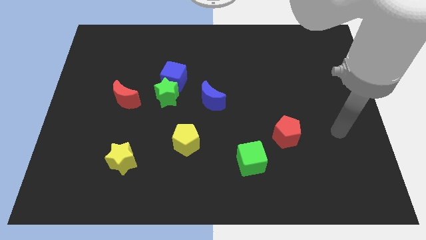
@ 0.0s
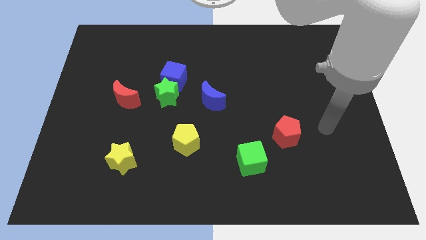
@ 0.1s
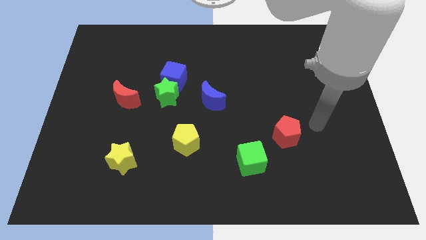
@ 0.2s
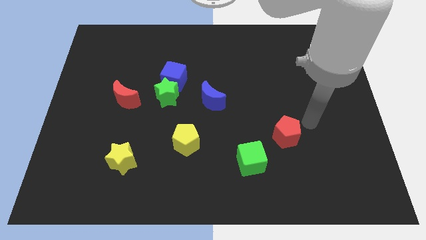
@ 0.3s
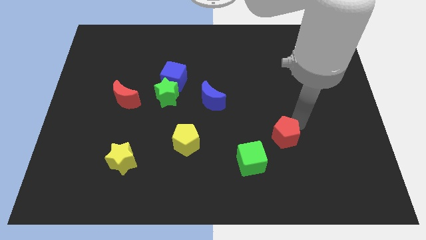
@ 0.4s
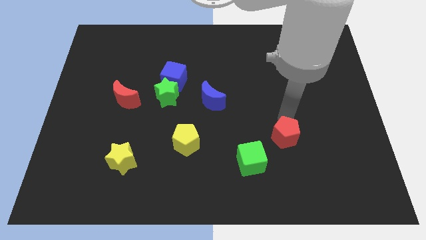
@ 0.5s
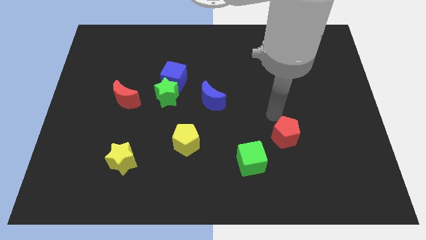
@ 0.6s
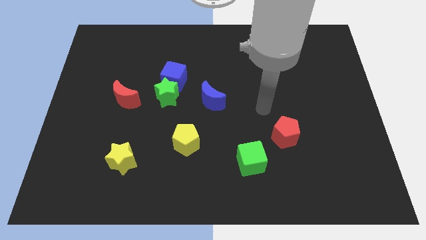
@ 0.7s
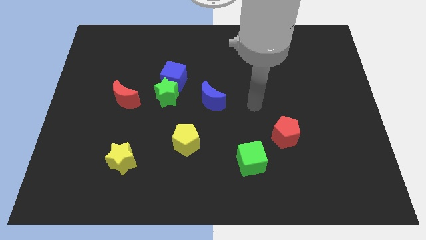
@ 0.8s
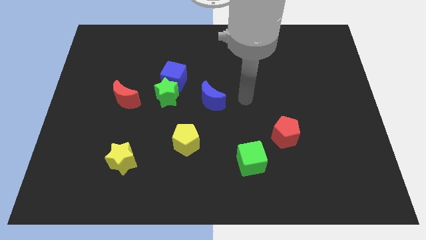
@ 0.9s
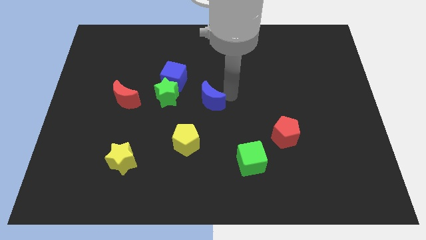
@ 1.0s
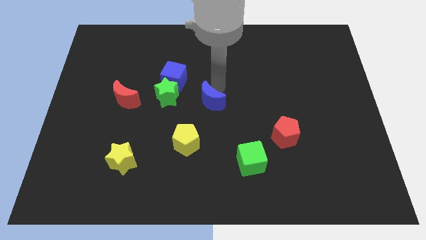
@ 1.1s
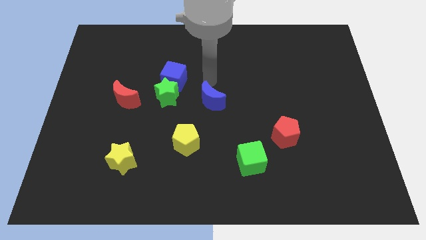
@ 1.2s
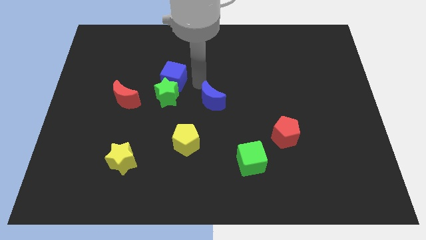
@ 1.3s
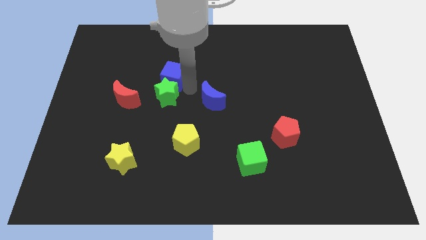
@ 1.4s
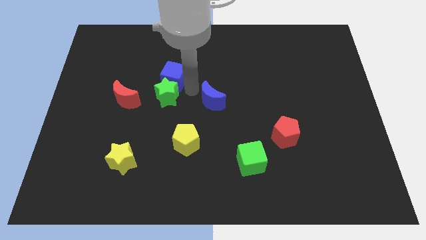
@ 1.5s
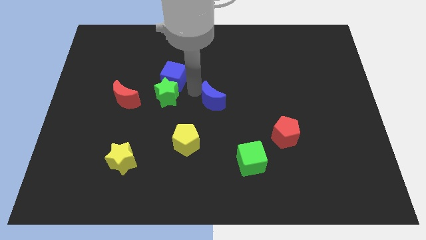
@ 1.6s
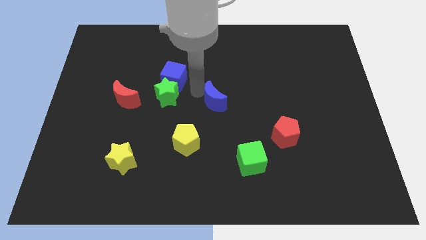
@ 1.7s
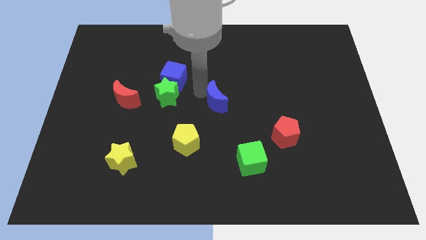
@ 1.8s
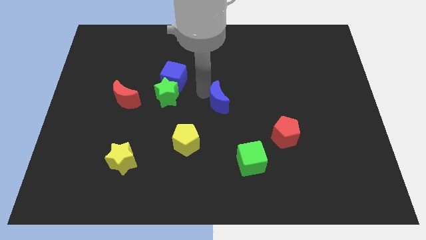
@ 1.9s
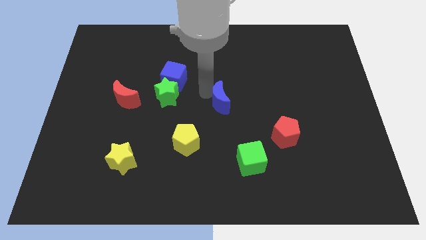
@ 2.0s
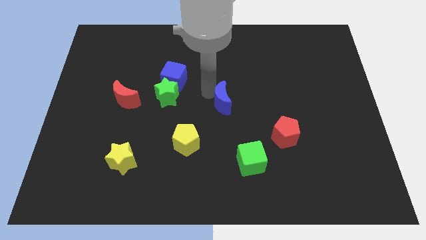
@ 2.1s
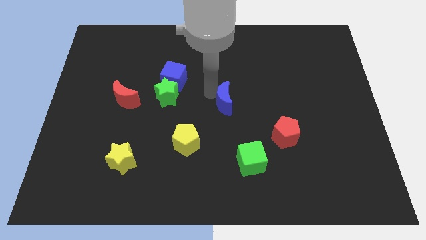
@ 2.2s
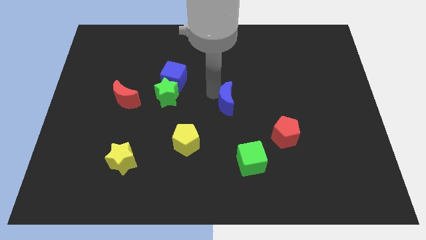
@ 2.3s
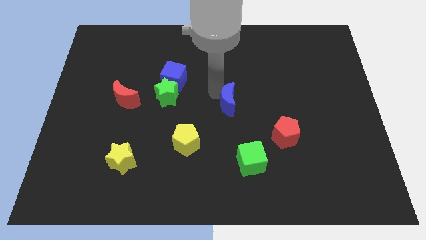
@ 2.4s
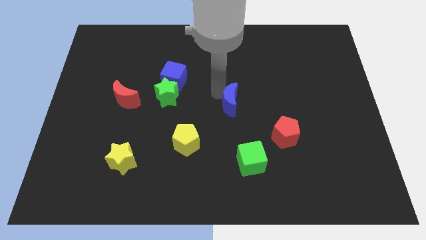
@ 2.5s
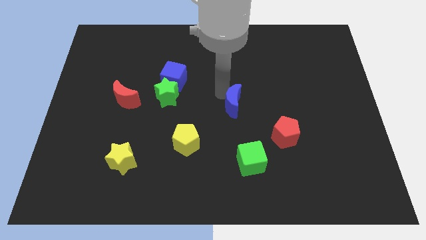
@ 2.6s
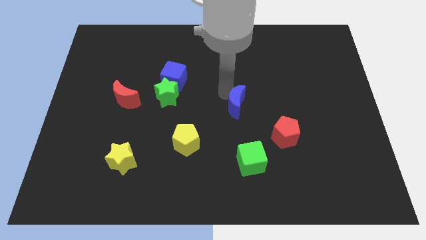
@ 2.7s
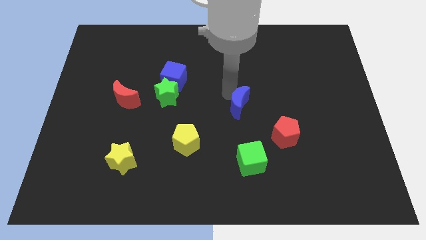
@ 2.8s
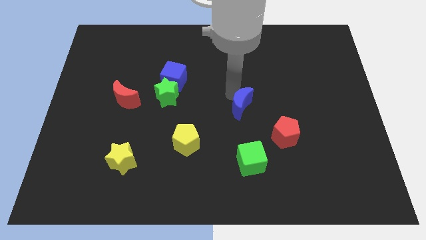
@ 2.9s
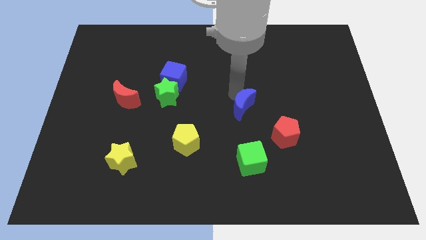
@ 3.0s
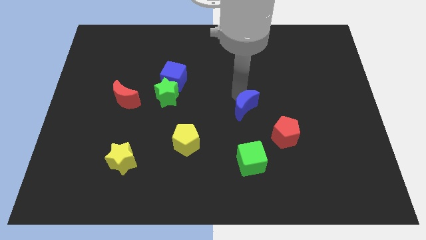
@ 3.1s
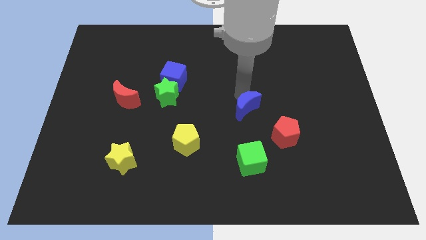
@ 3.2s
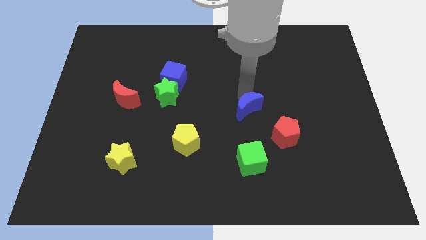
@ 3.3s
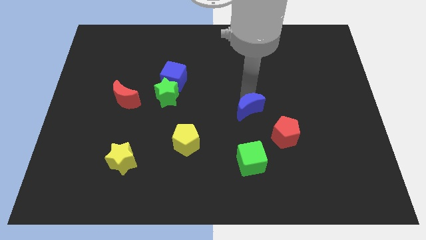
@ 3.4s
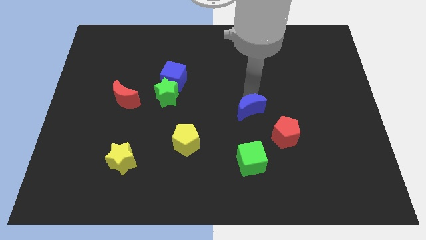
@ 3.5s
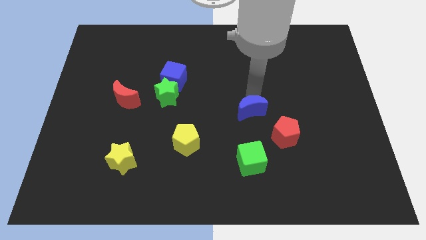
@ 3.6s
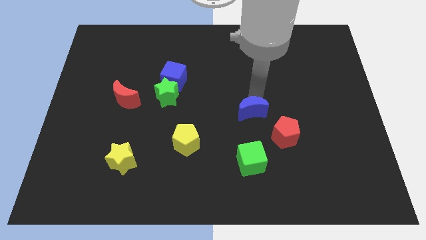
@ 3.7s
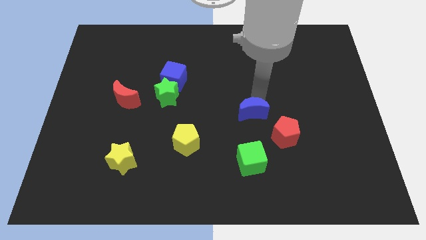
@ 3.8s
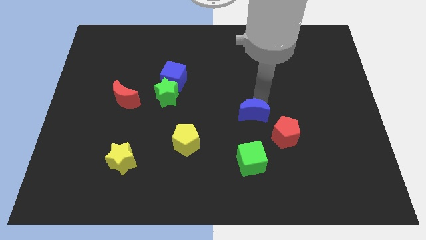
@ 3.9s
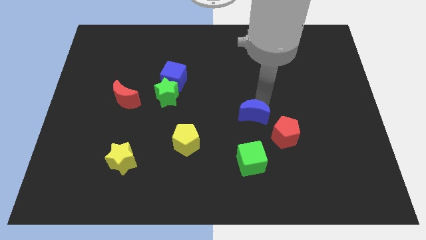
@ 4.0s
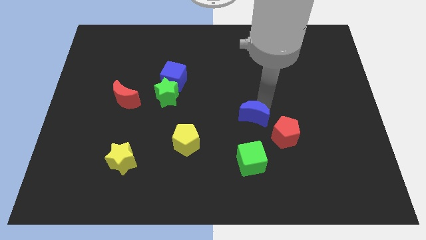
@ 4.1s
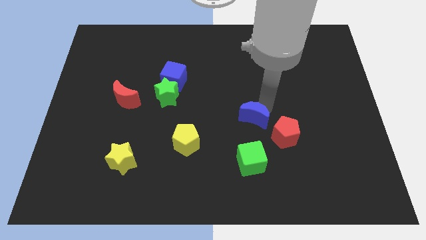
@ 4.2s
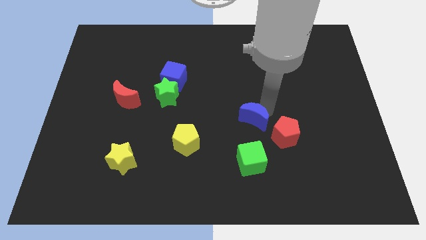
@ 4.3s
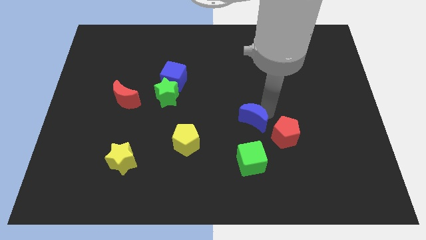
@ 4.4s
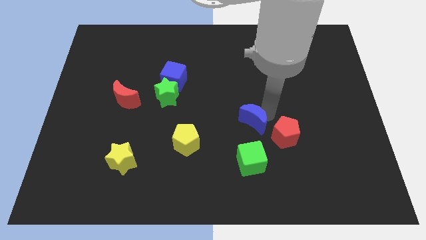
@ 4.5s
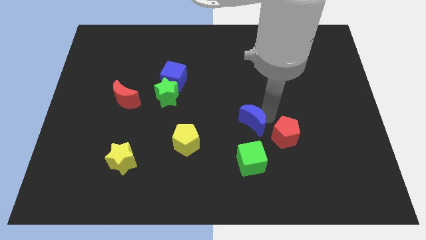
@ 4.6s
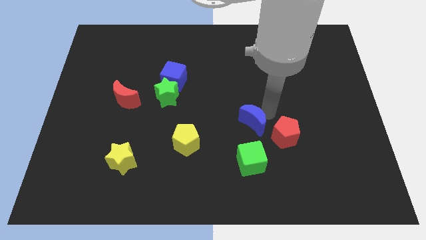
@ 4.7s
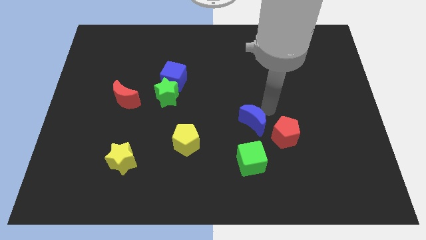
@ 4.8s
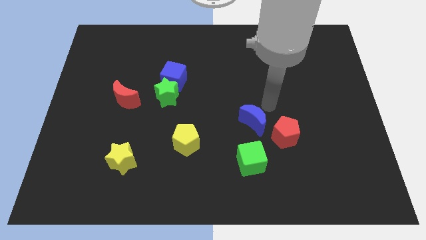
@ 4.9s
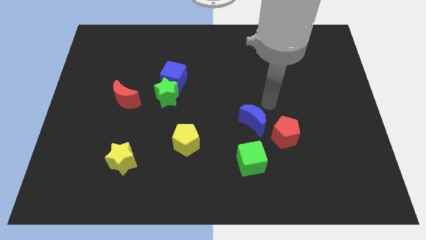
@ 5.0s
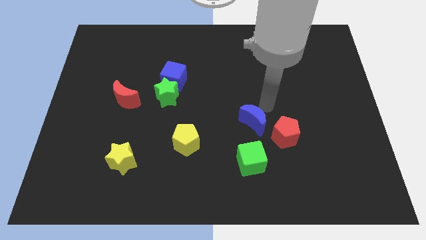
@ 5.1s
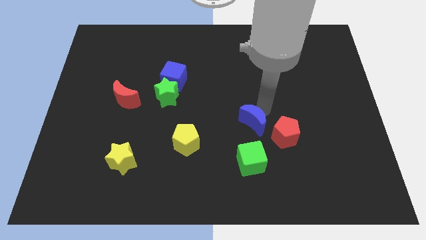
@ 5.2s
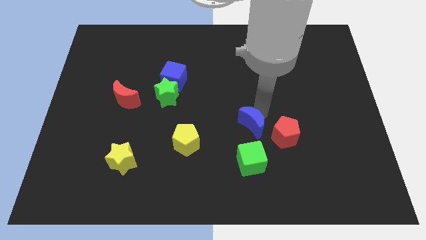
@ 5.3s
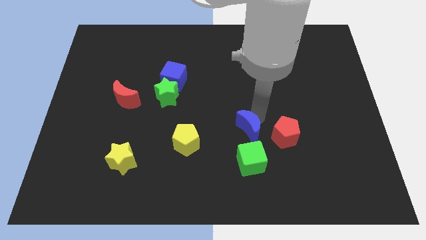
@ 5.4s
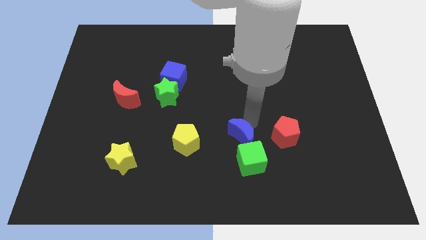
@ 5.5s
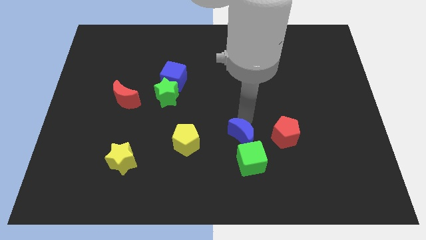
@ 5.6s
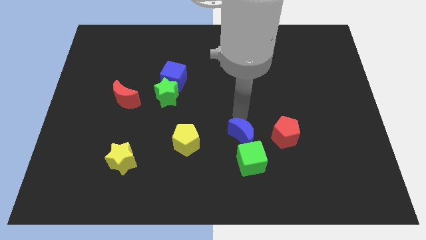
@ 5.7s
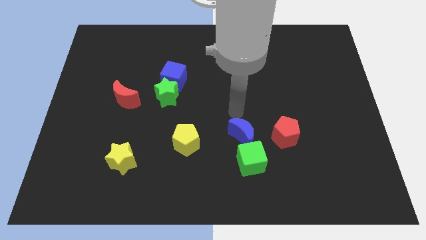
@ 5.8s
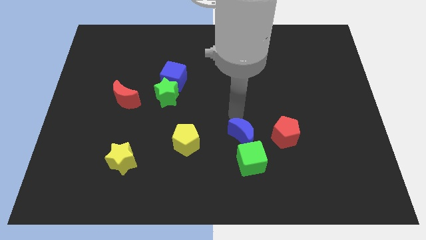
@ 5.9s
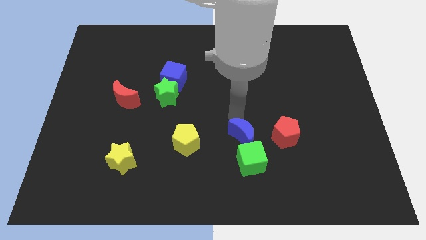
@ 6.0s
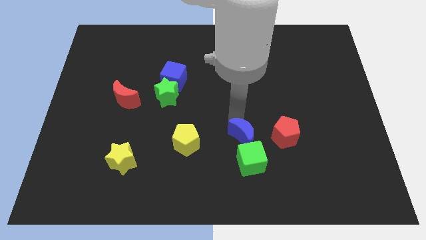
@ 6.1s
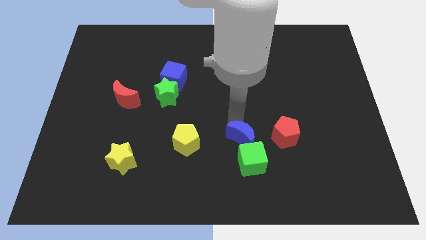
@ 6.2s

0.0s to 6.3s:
push the blue moon towards the green cube

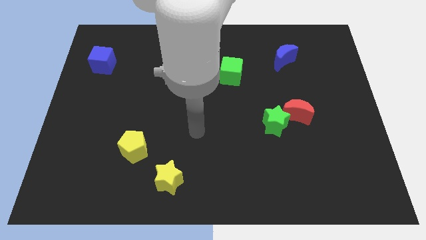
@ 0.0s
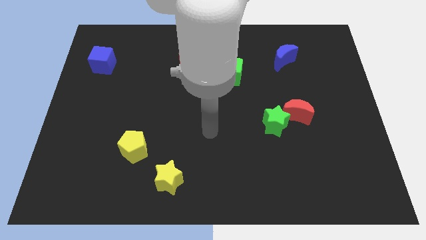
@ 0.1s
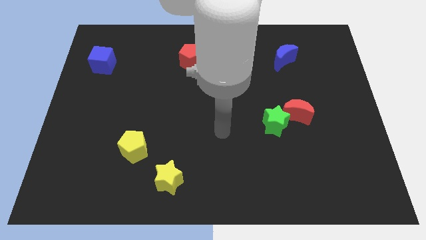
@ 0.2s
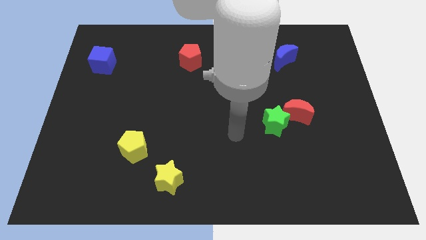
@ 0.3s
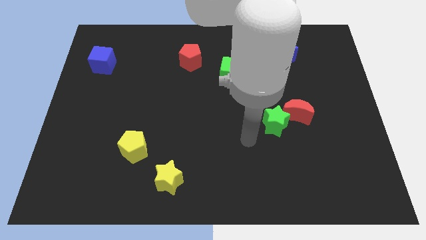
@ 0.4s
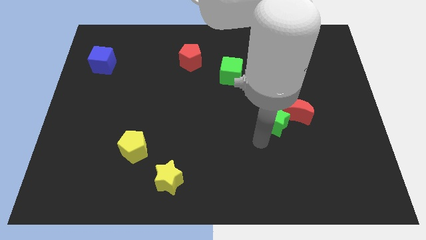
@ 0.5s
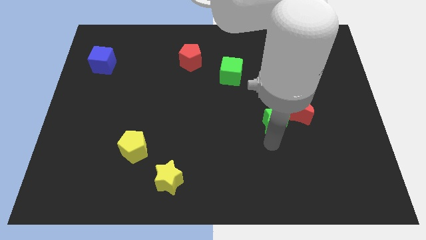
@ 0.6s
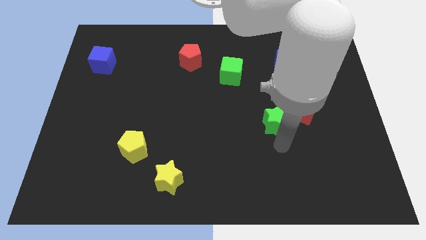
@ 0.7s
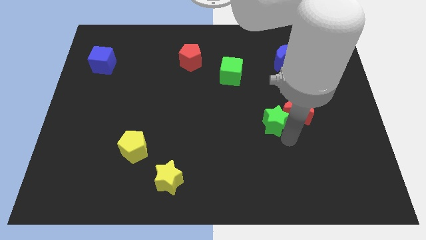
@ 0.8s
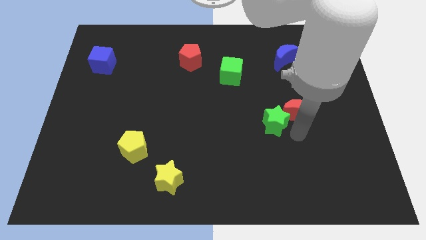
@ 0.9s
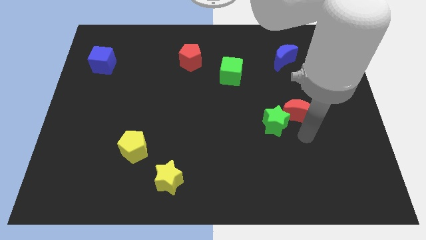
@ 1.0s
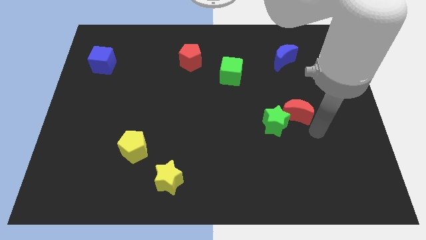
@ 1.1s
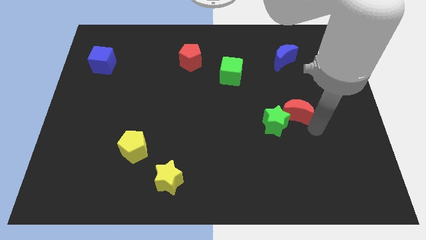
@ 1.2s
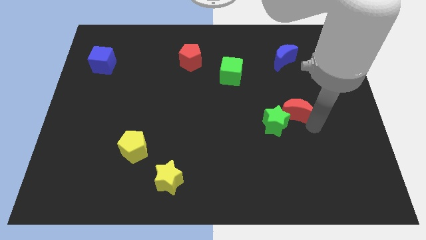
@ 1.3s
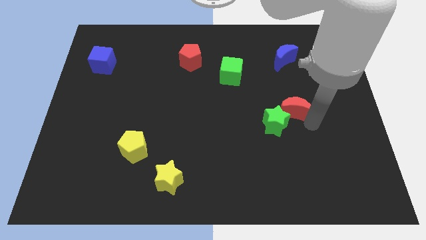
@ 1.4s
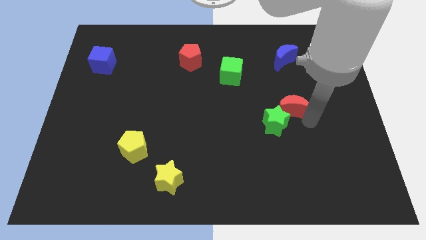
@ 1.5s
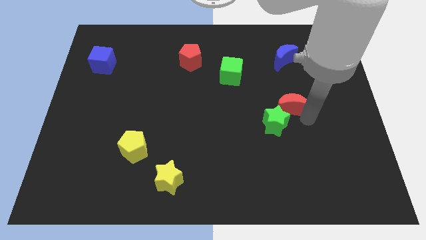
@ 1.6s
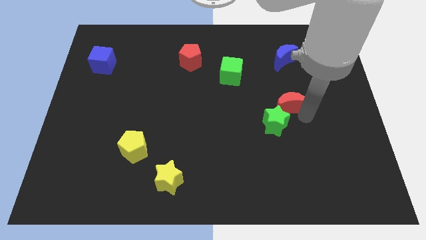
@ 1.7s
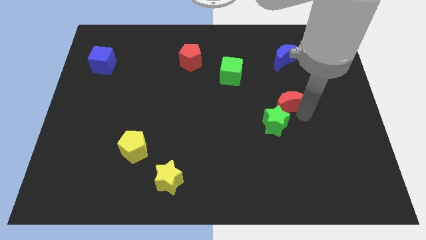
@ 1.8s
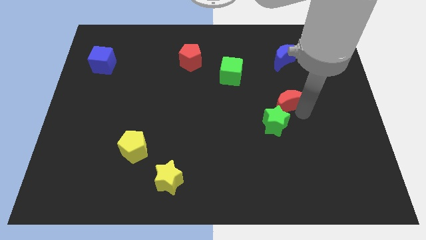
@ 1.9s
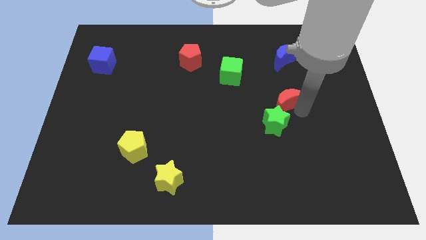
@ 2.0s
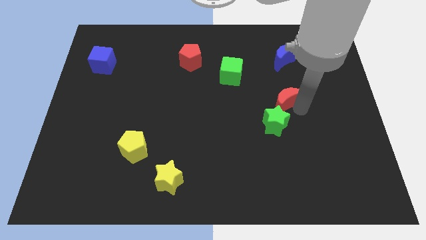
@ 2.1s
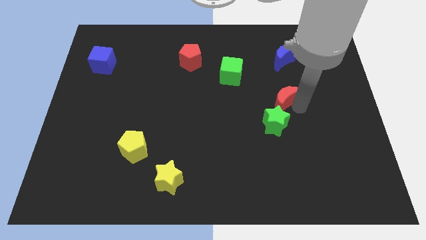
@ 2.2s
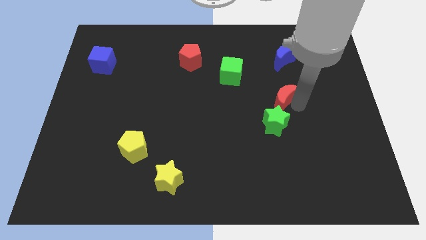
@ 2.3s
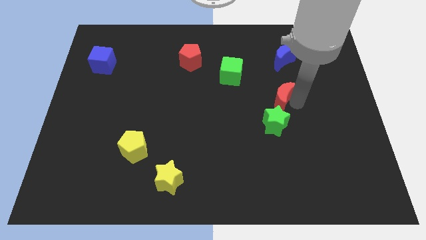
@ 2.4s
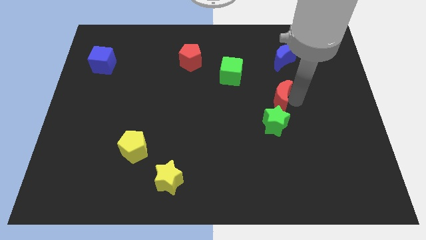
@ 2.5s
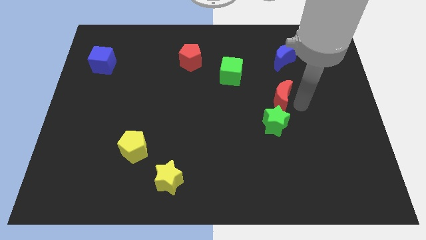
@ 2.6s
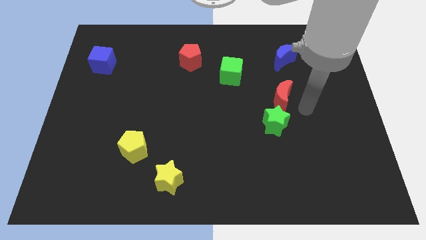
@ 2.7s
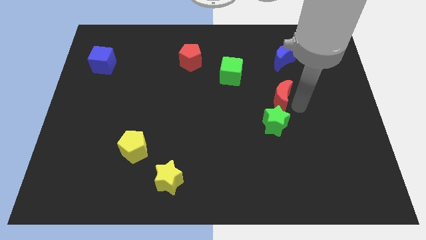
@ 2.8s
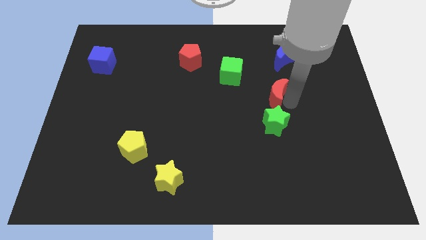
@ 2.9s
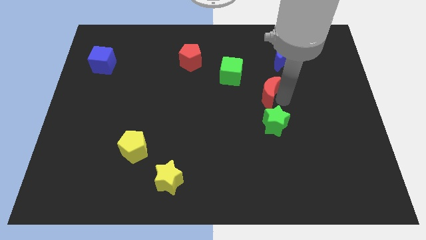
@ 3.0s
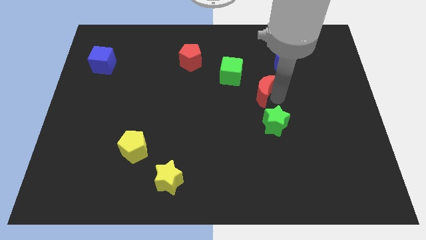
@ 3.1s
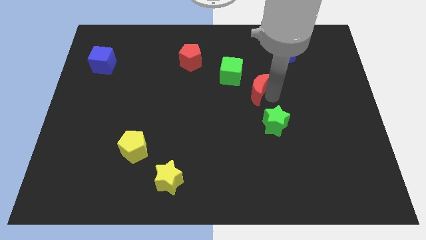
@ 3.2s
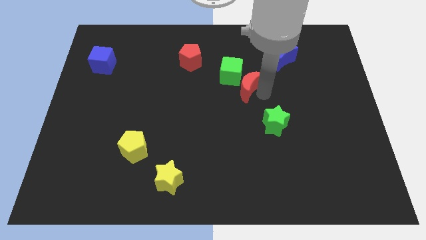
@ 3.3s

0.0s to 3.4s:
move the red moon towards the green cube
